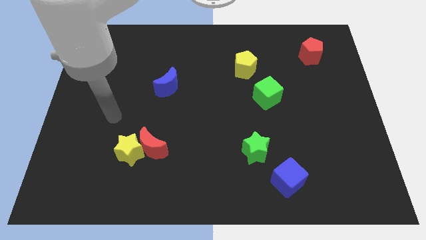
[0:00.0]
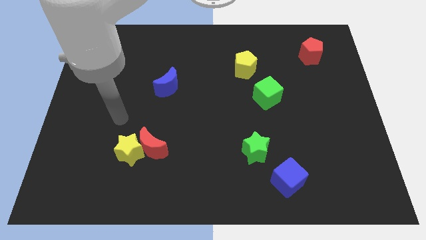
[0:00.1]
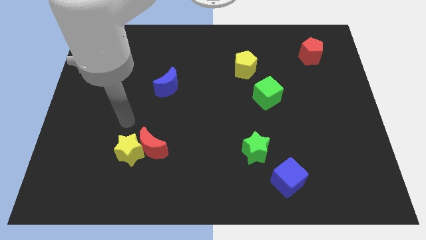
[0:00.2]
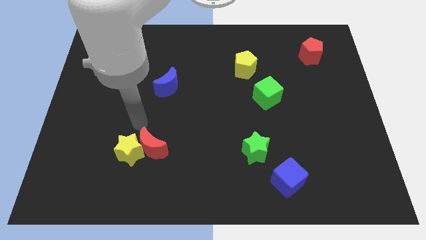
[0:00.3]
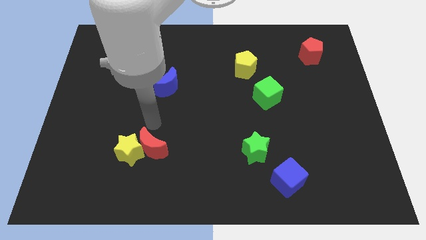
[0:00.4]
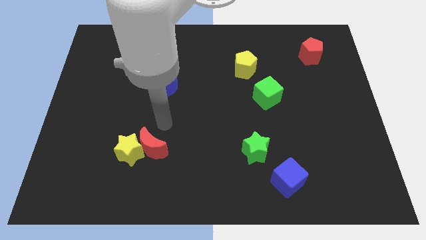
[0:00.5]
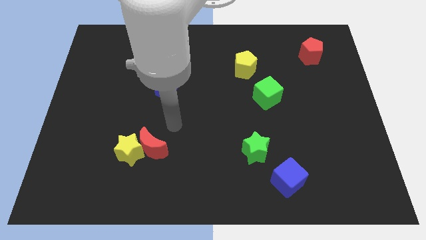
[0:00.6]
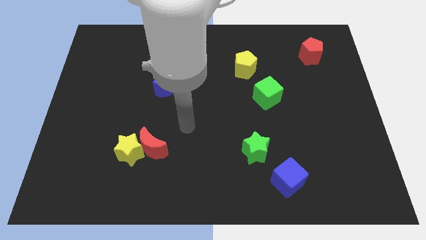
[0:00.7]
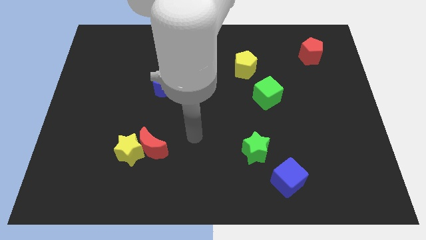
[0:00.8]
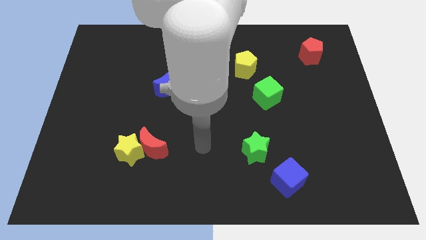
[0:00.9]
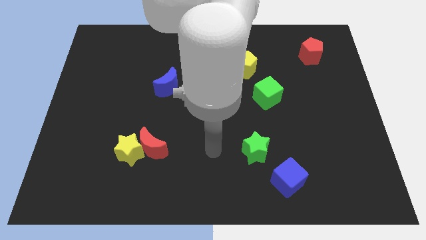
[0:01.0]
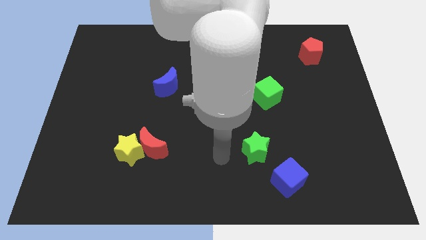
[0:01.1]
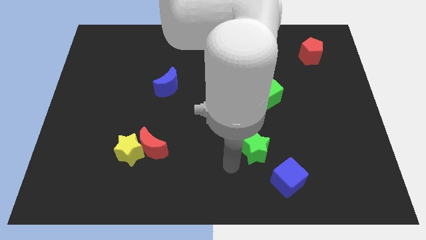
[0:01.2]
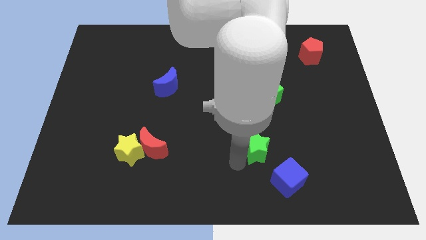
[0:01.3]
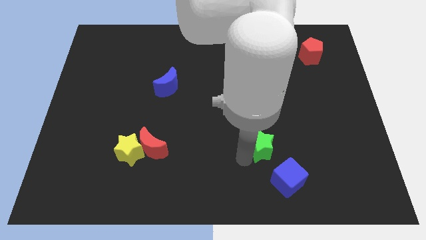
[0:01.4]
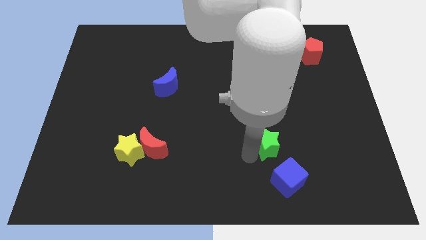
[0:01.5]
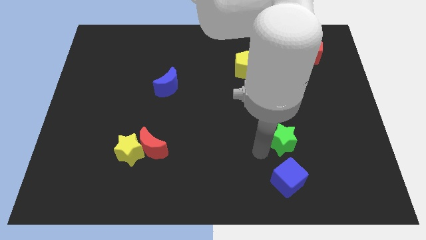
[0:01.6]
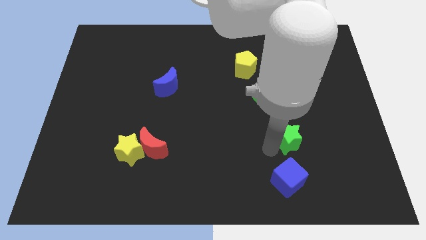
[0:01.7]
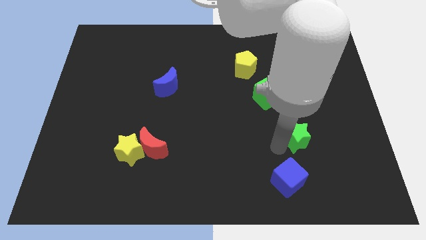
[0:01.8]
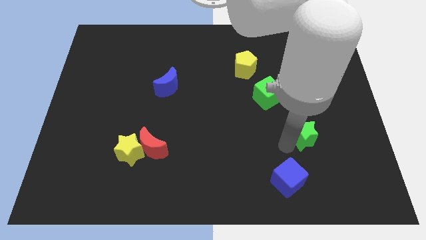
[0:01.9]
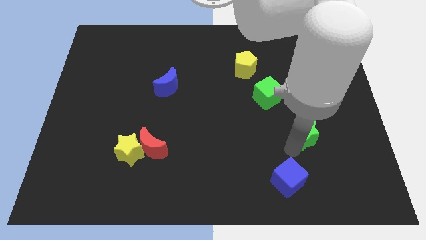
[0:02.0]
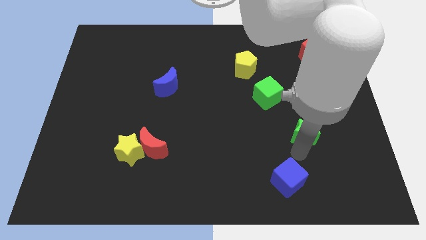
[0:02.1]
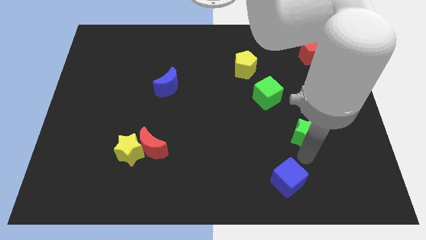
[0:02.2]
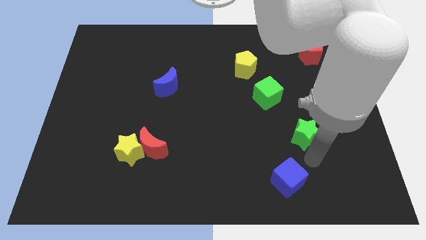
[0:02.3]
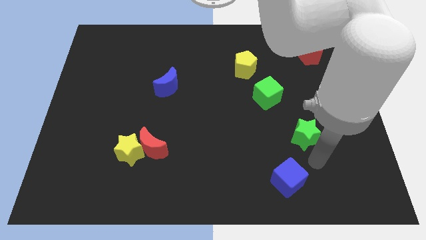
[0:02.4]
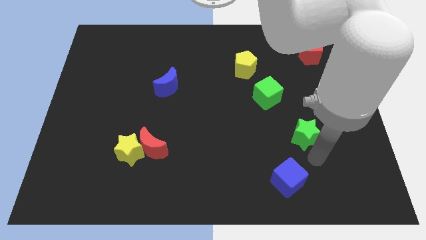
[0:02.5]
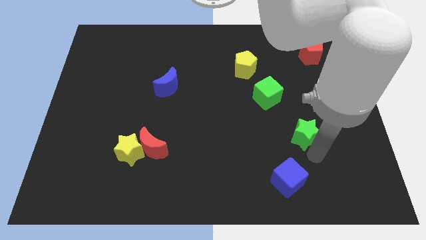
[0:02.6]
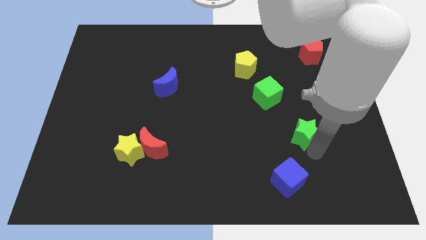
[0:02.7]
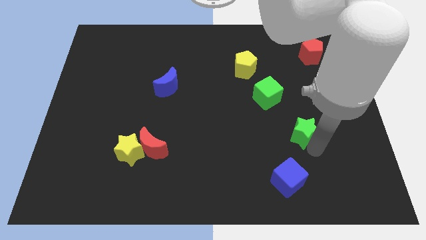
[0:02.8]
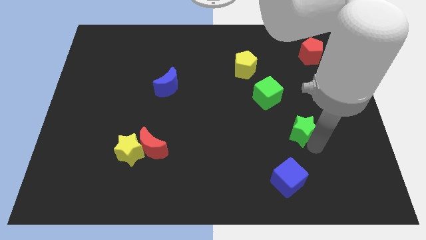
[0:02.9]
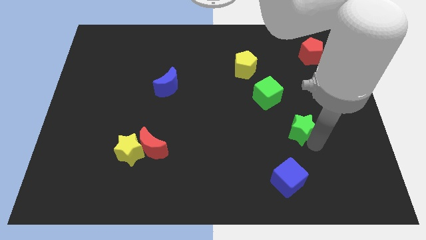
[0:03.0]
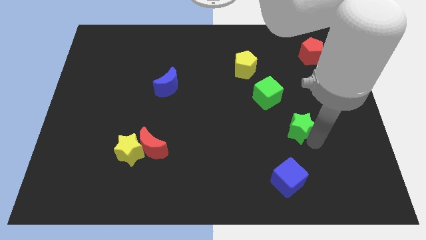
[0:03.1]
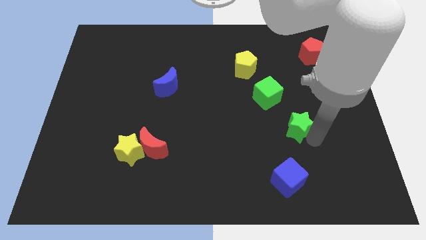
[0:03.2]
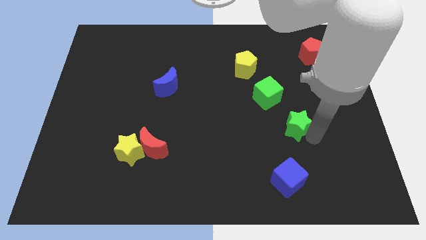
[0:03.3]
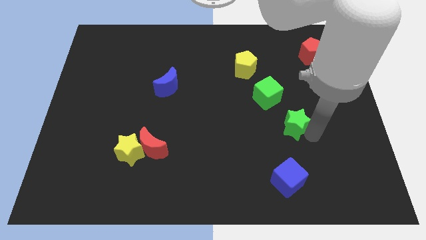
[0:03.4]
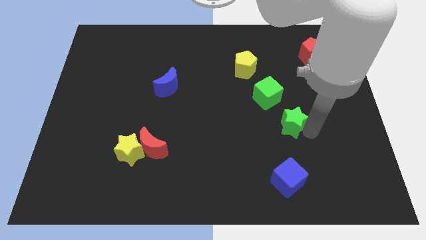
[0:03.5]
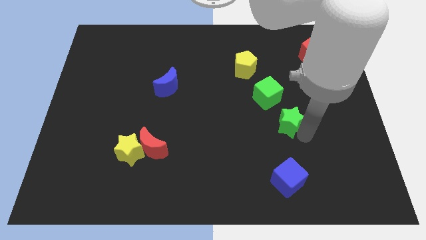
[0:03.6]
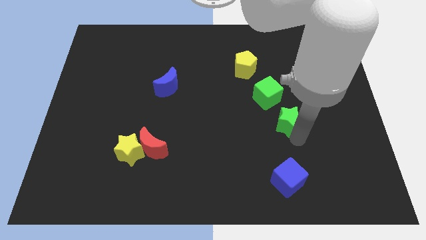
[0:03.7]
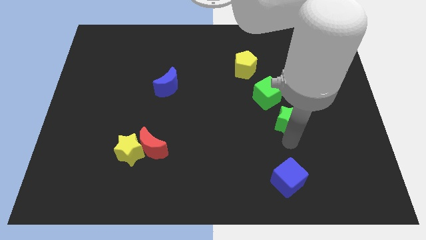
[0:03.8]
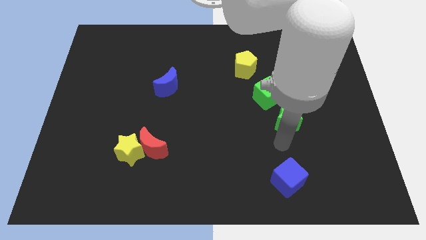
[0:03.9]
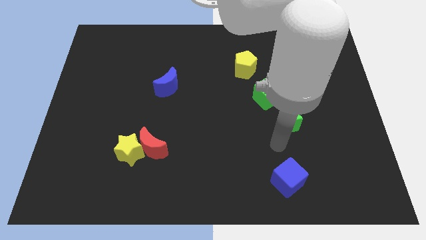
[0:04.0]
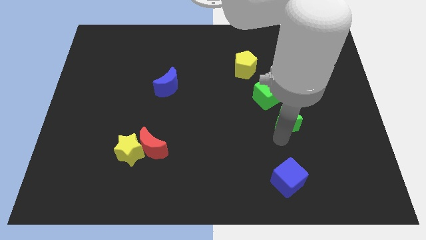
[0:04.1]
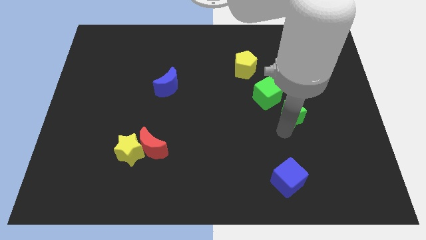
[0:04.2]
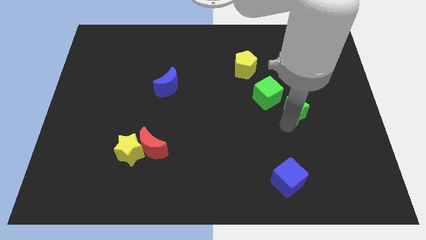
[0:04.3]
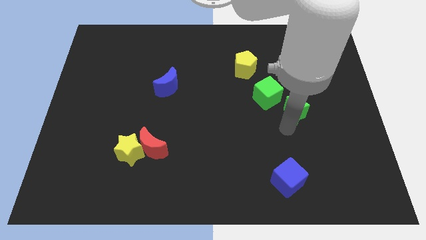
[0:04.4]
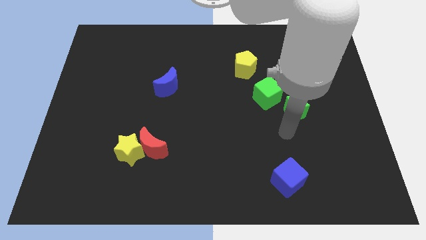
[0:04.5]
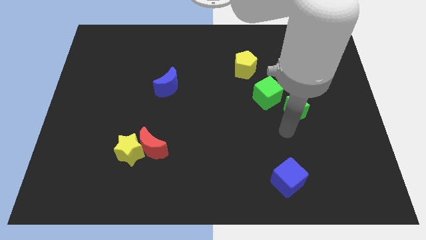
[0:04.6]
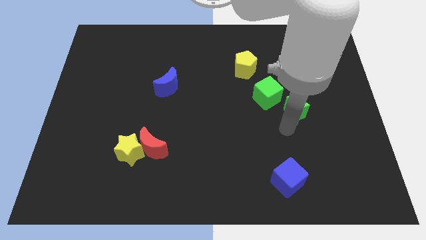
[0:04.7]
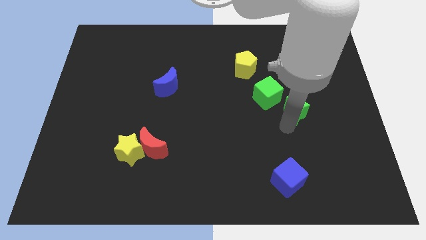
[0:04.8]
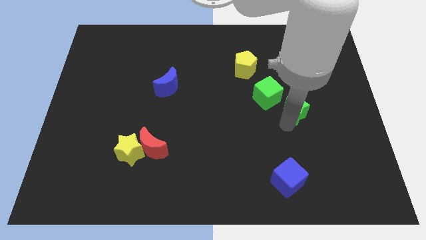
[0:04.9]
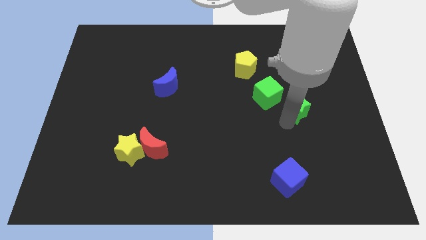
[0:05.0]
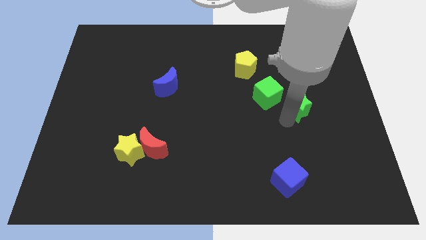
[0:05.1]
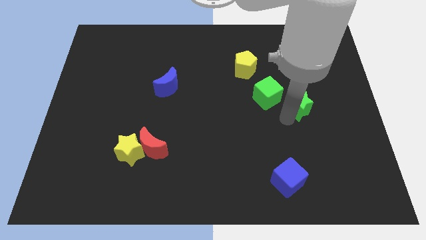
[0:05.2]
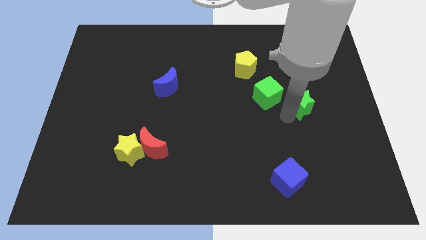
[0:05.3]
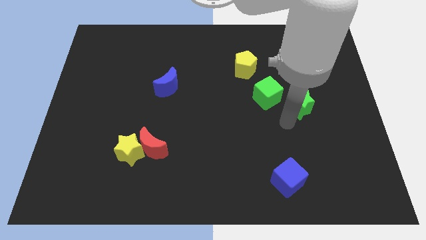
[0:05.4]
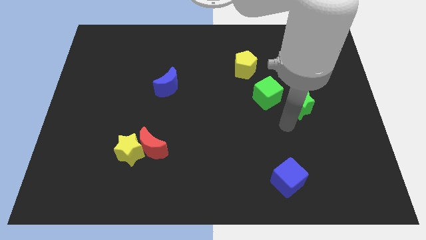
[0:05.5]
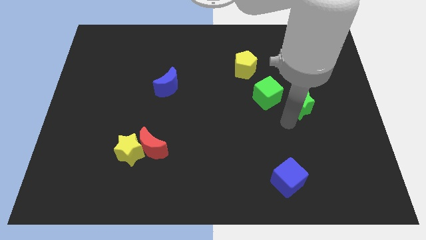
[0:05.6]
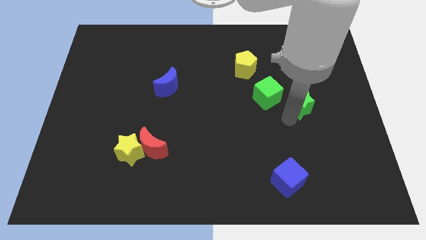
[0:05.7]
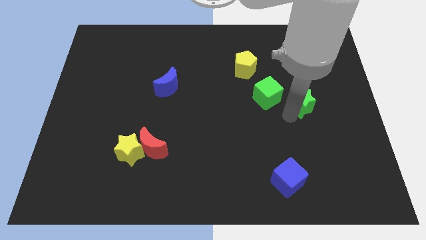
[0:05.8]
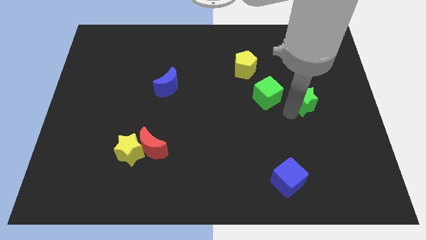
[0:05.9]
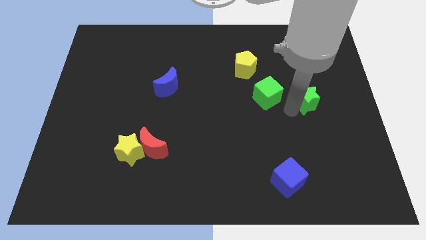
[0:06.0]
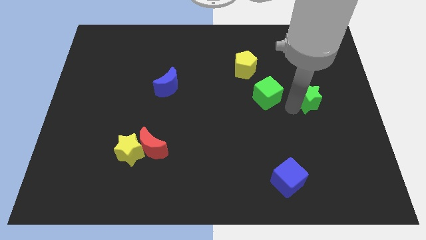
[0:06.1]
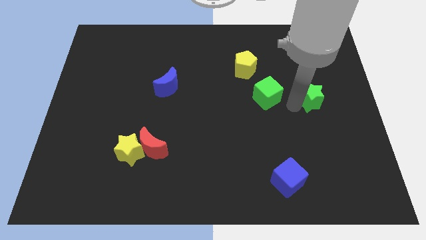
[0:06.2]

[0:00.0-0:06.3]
push the green star to the bottom of the red pentagon

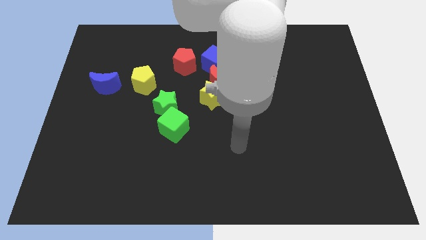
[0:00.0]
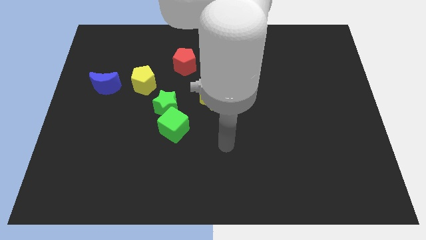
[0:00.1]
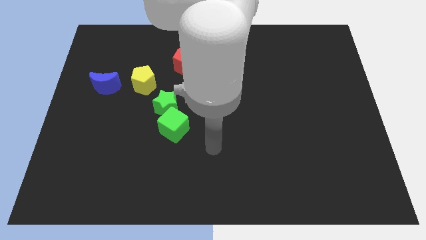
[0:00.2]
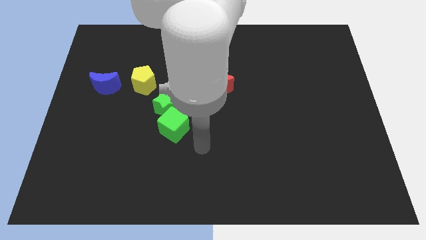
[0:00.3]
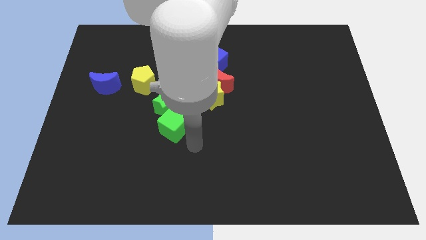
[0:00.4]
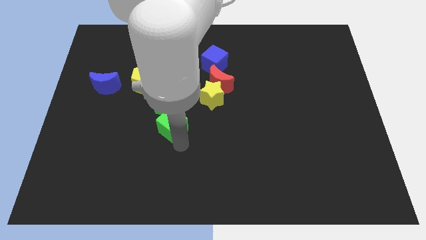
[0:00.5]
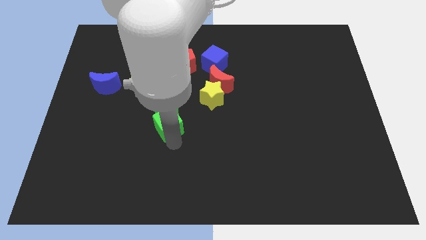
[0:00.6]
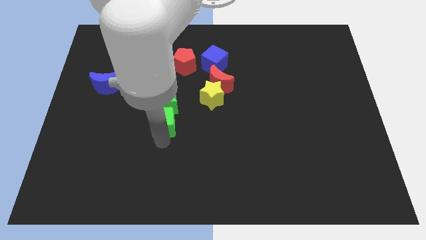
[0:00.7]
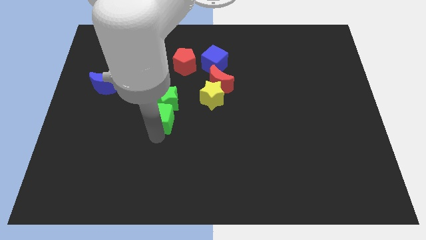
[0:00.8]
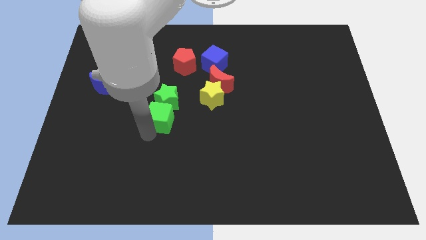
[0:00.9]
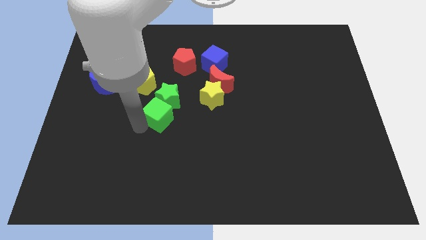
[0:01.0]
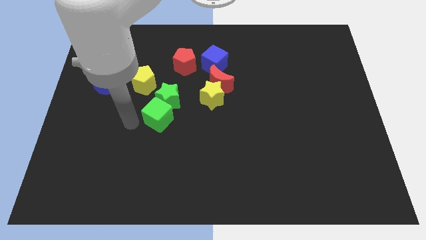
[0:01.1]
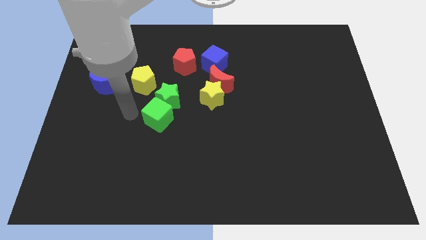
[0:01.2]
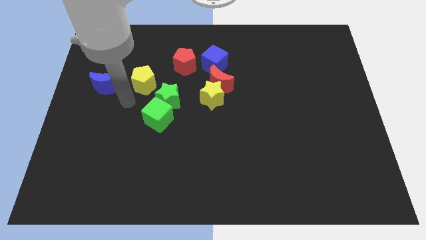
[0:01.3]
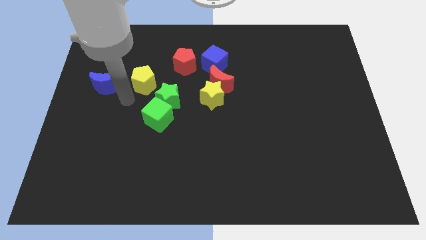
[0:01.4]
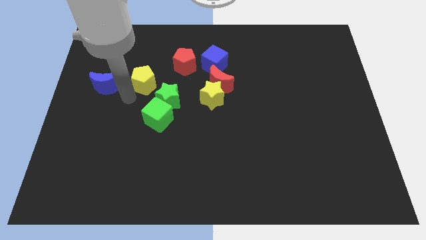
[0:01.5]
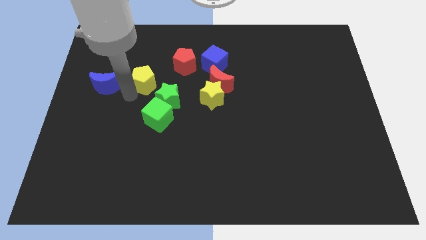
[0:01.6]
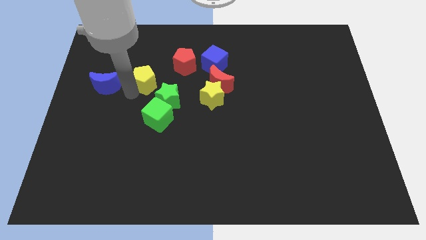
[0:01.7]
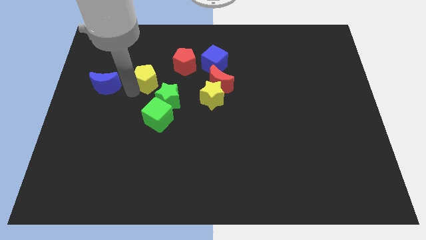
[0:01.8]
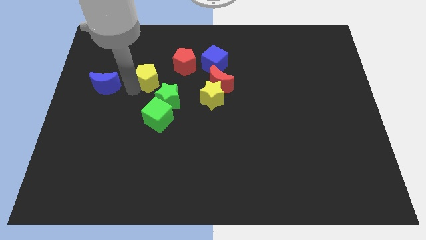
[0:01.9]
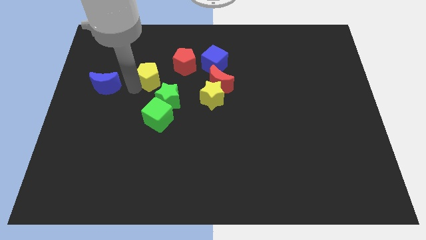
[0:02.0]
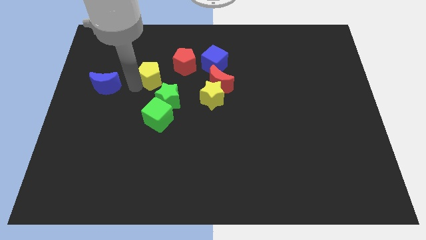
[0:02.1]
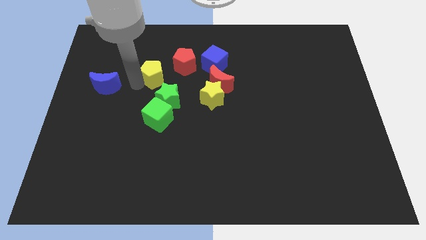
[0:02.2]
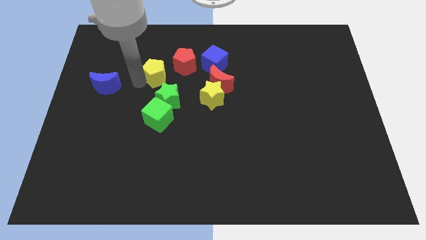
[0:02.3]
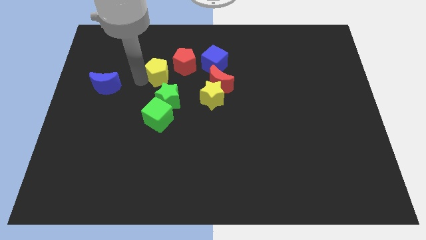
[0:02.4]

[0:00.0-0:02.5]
push the yellow pentagon just left of the blue cube
